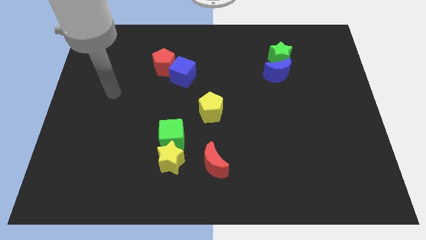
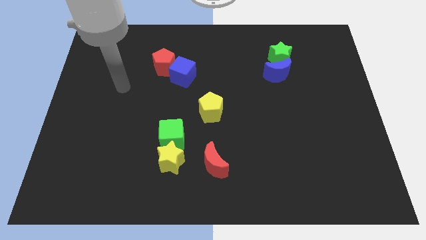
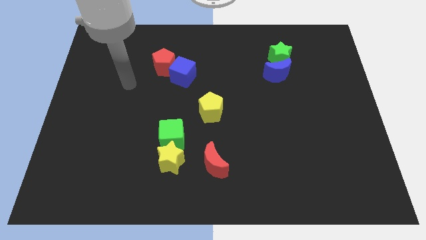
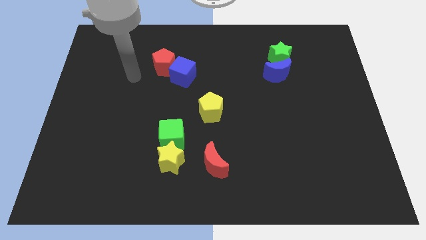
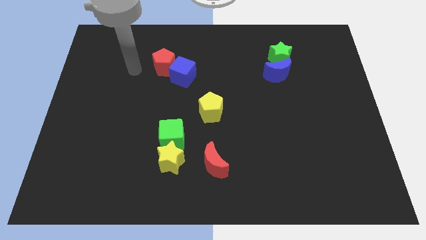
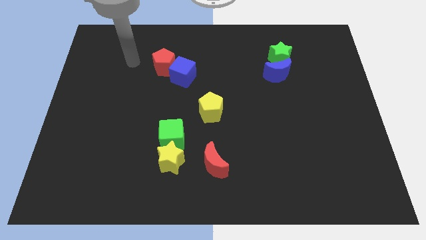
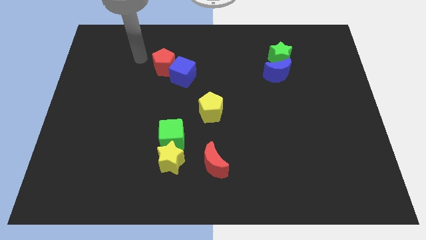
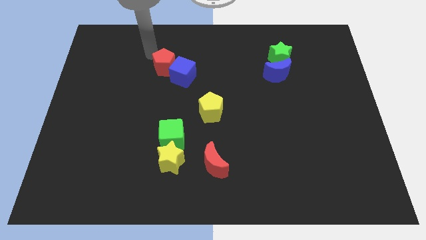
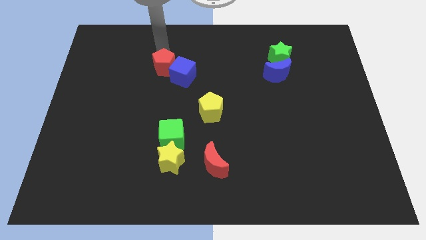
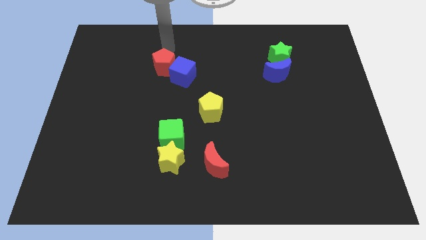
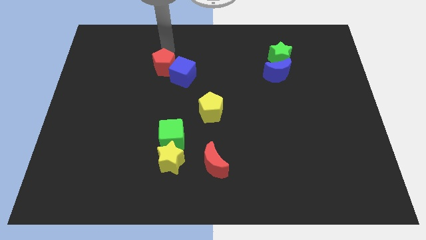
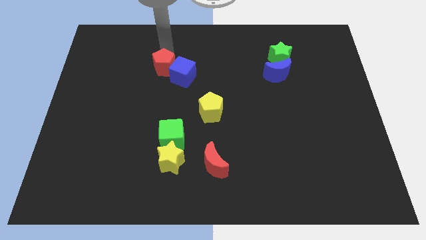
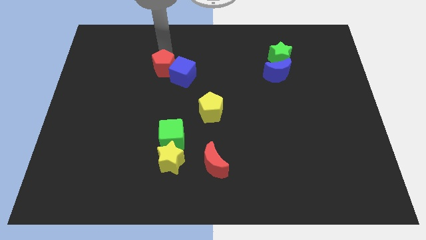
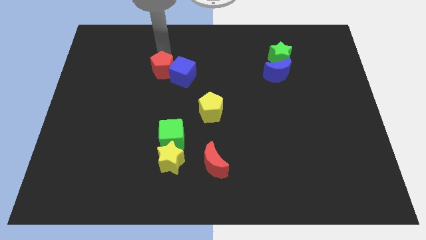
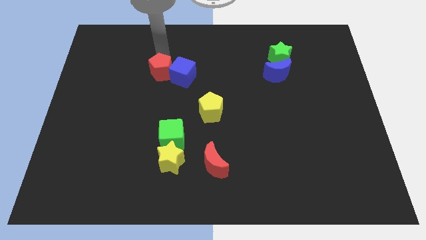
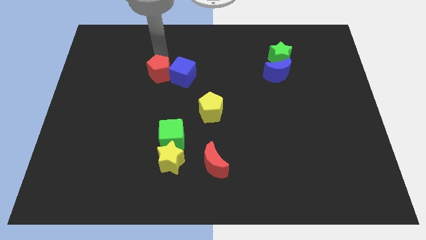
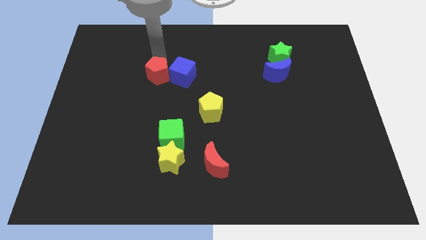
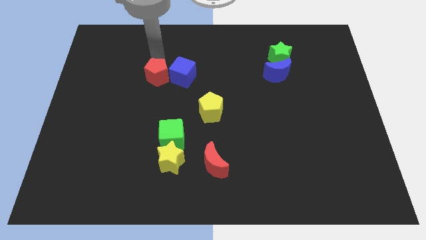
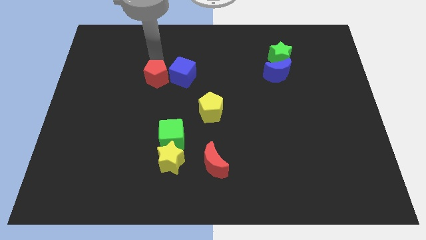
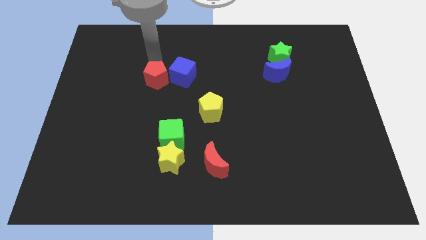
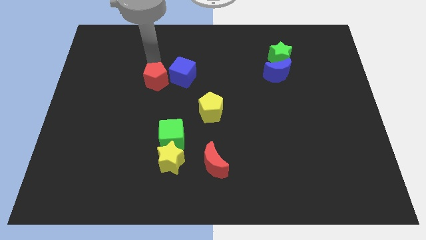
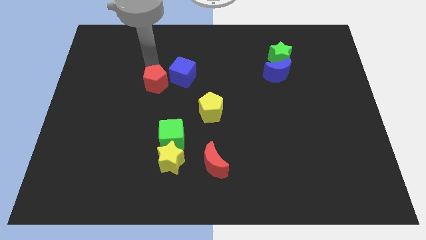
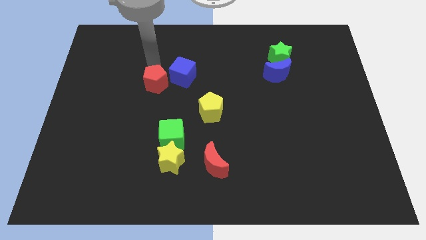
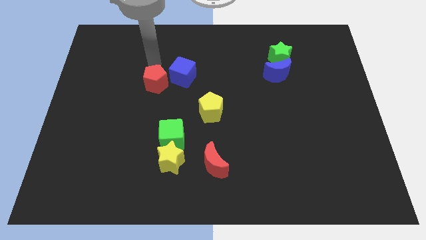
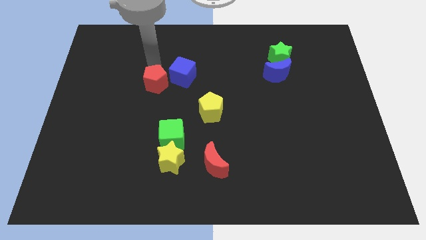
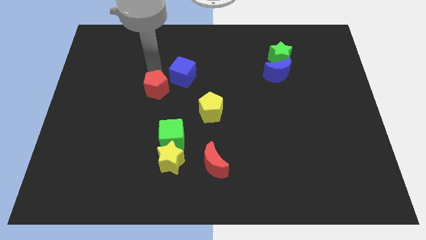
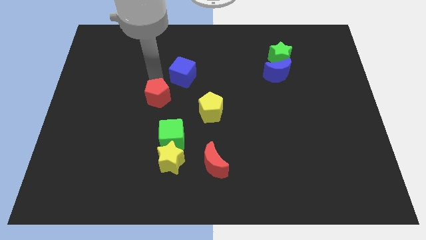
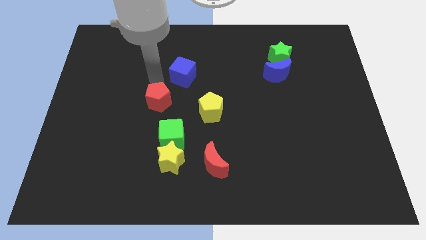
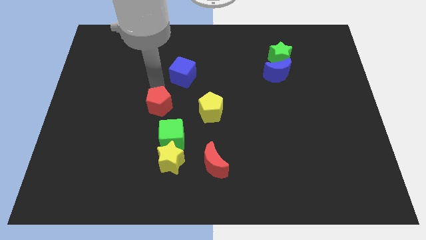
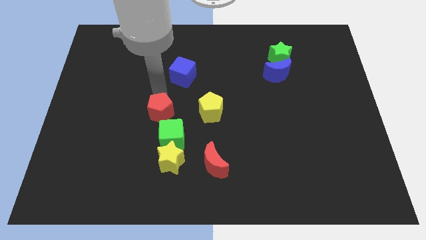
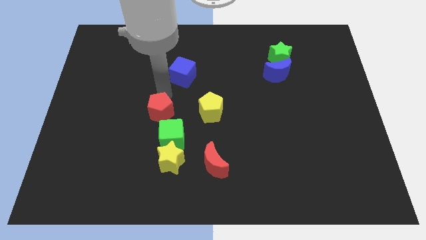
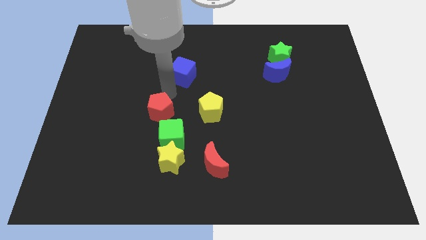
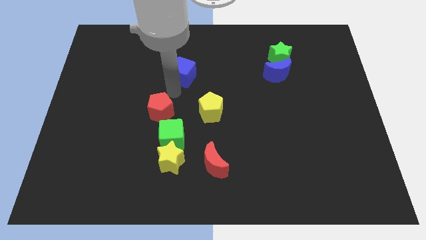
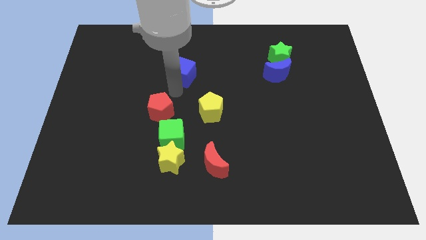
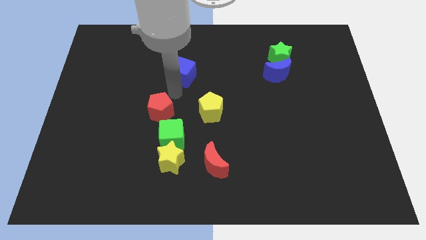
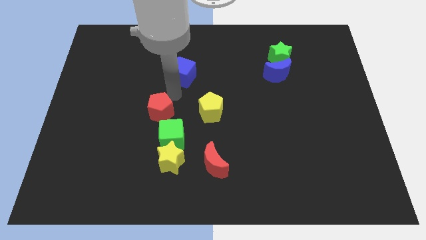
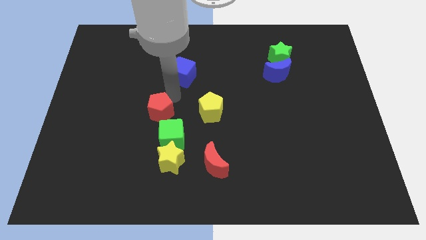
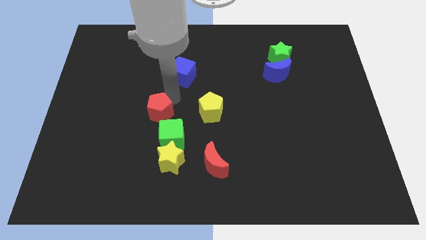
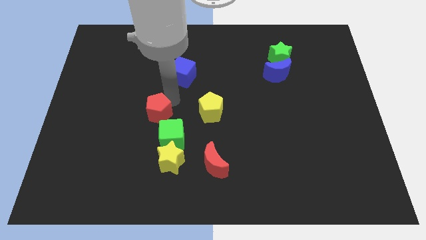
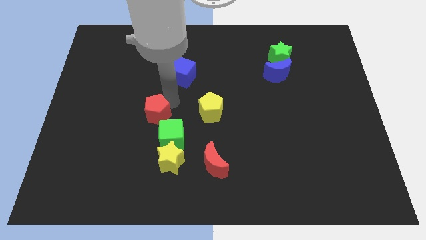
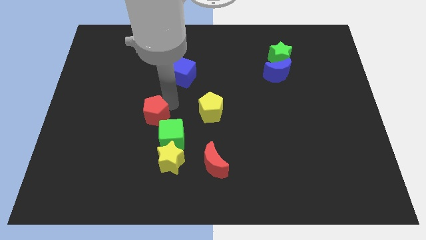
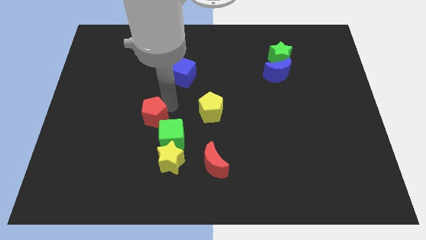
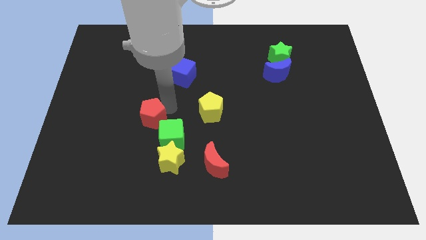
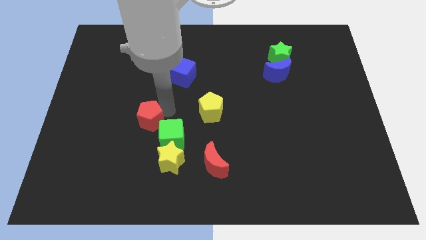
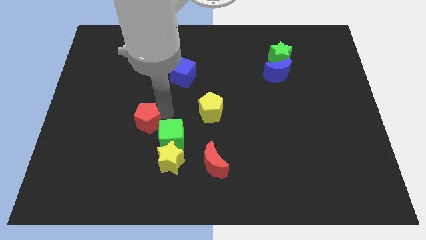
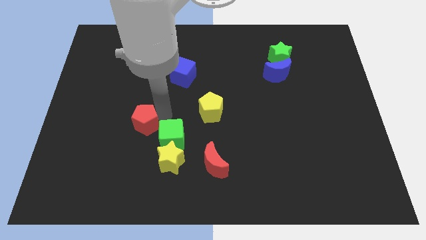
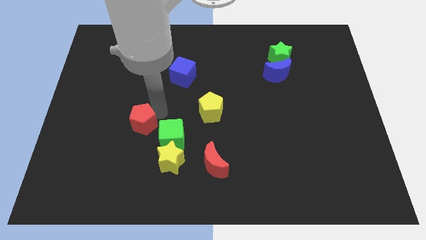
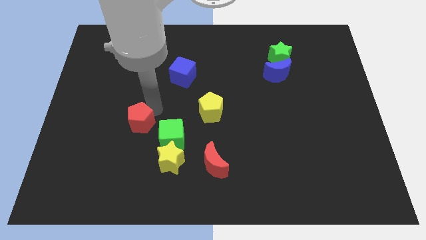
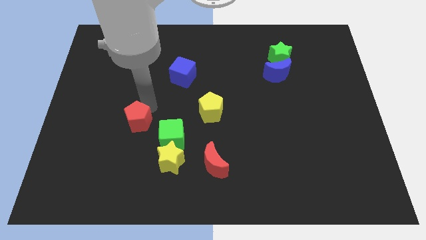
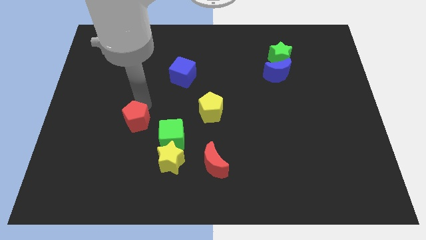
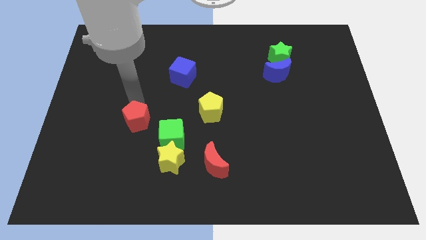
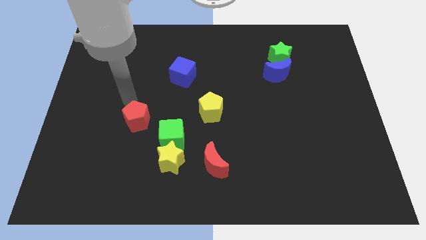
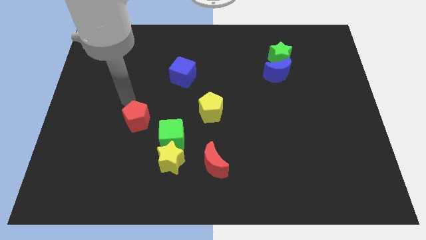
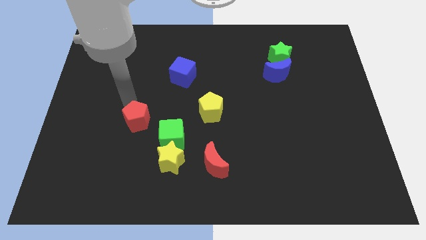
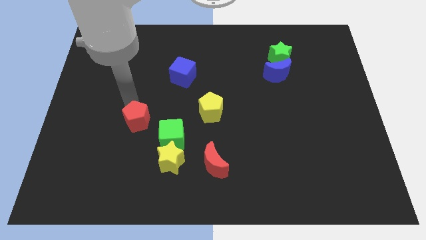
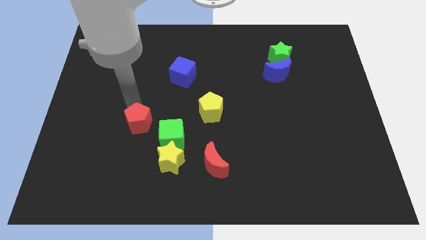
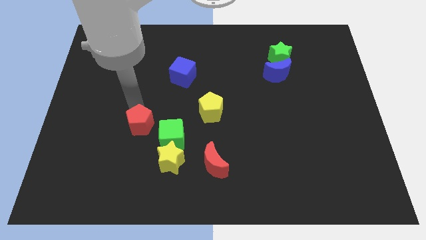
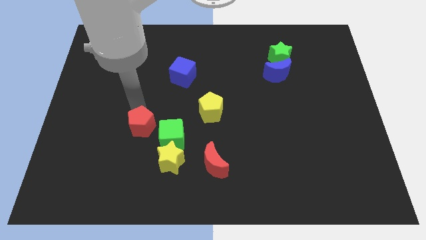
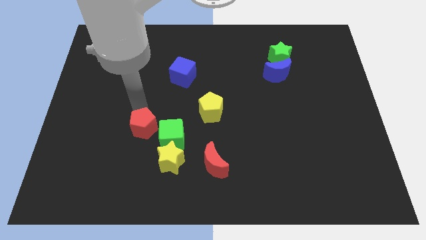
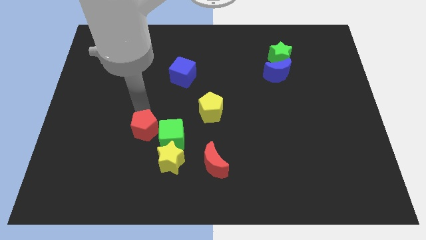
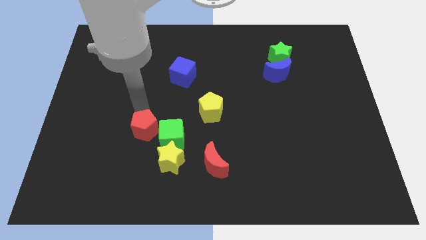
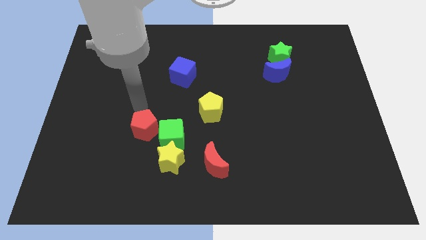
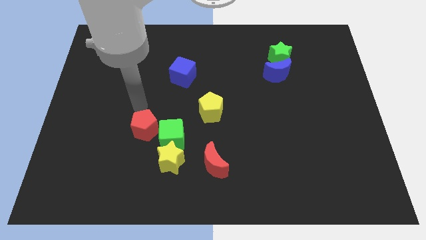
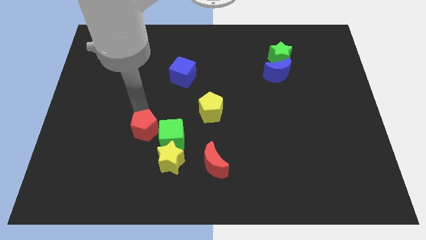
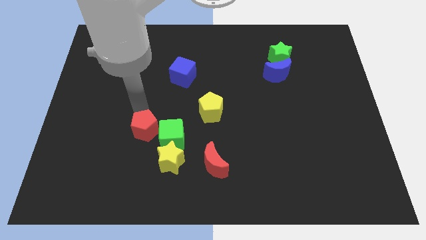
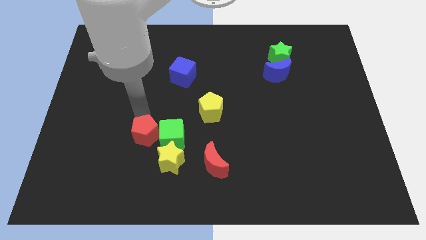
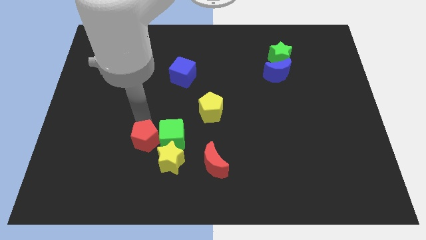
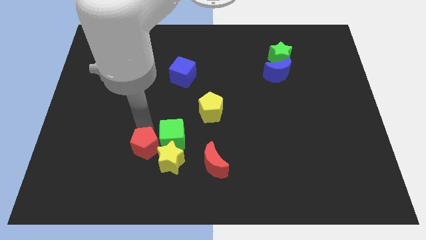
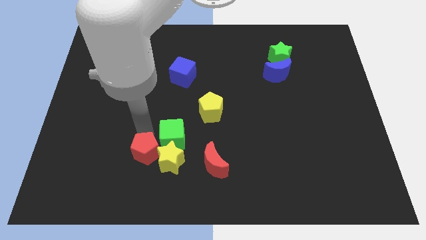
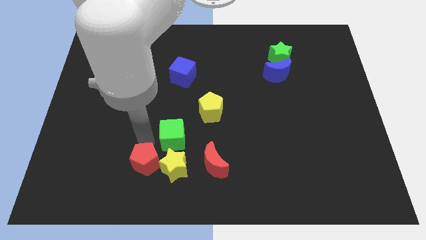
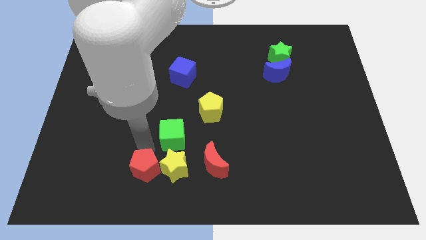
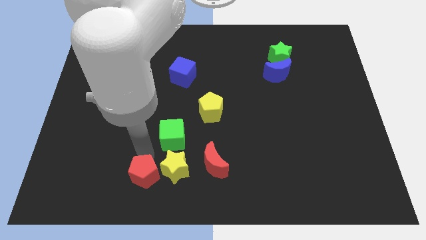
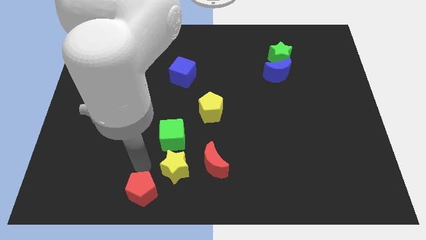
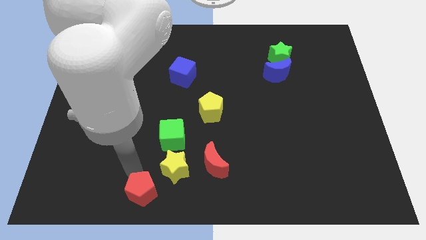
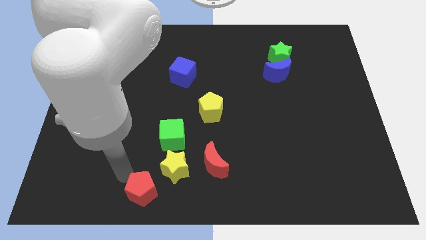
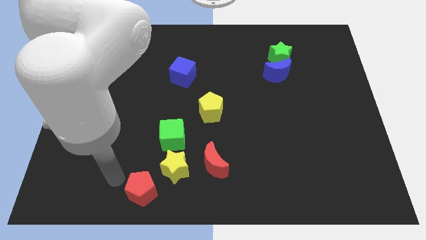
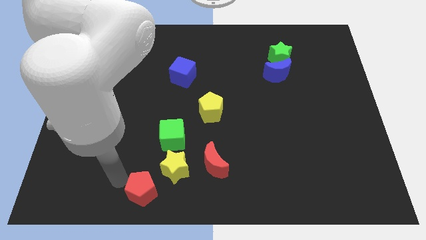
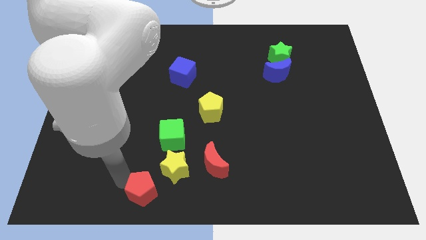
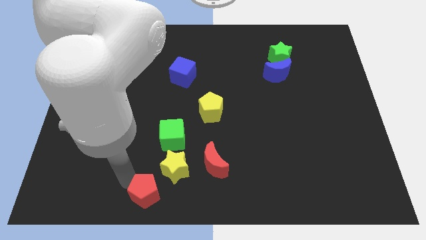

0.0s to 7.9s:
push the red pentagon to the bottom
